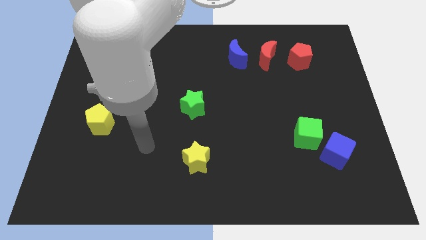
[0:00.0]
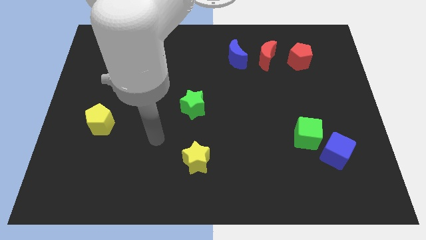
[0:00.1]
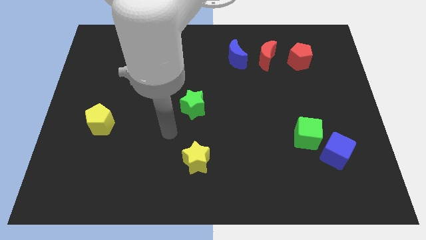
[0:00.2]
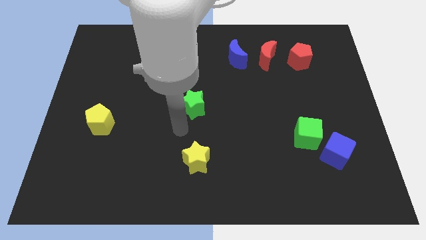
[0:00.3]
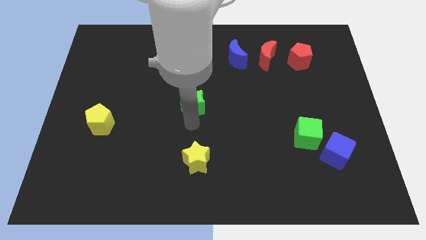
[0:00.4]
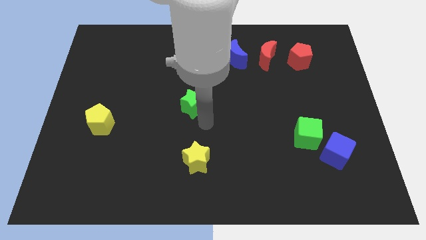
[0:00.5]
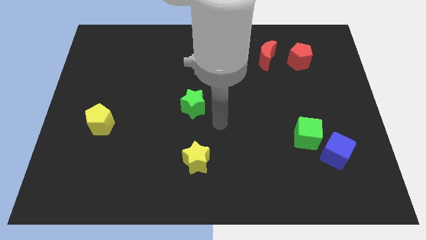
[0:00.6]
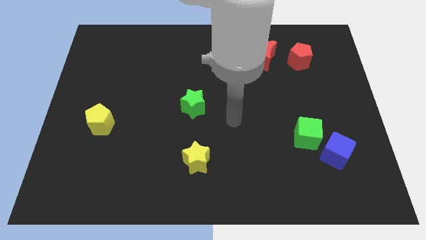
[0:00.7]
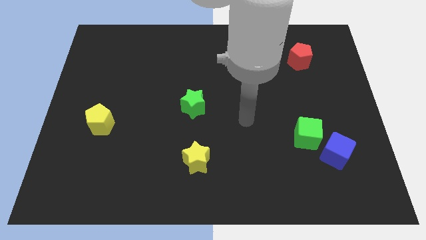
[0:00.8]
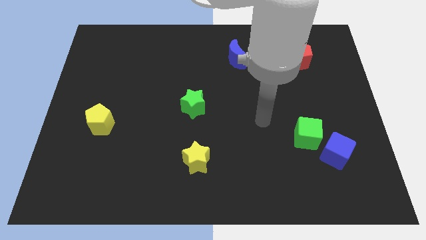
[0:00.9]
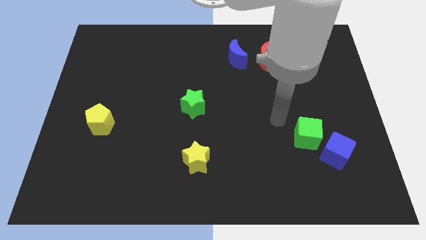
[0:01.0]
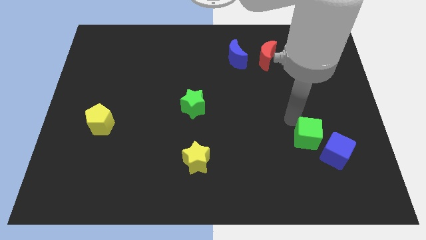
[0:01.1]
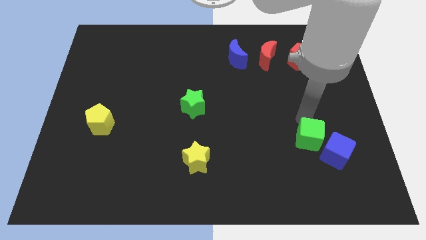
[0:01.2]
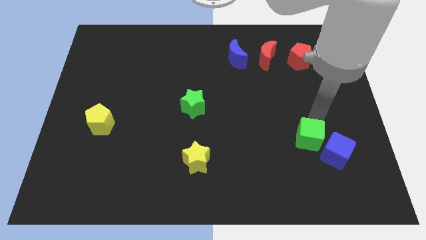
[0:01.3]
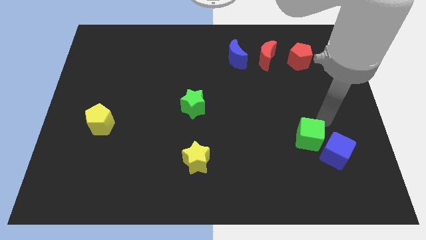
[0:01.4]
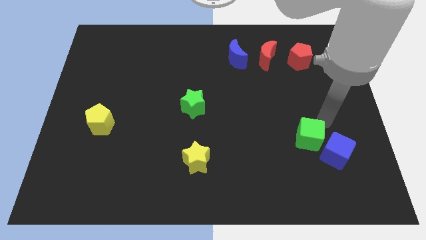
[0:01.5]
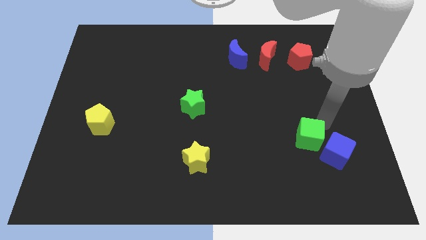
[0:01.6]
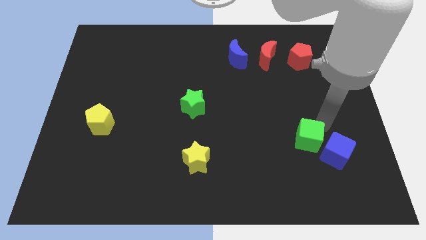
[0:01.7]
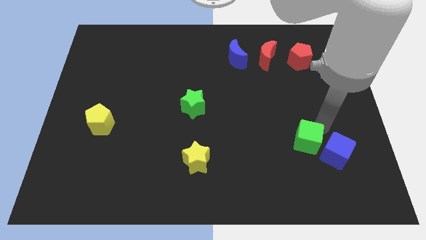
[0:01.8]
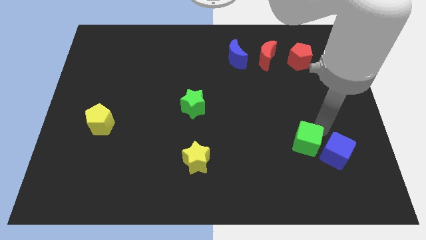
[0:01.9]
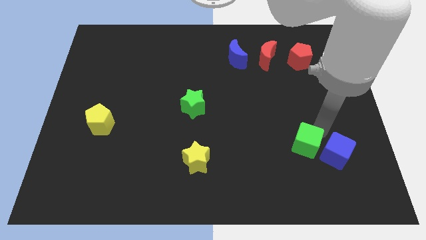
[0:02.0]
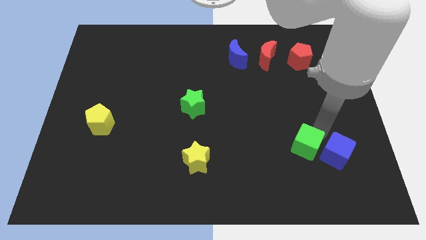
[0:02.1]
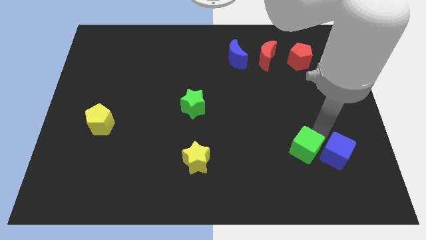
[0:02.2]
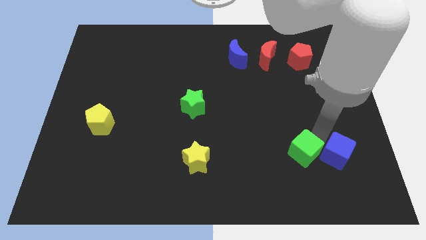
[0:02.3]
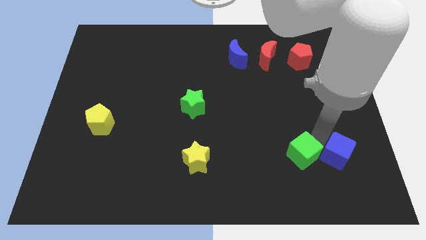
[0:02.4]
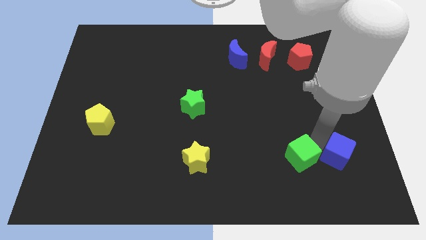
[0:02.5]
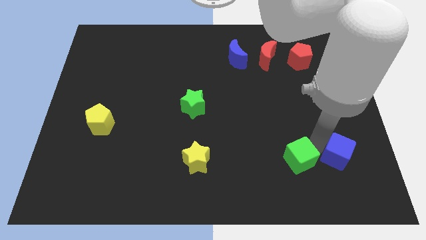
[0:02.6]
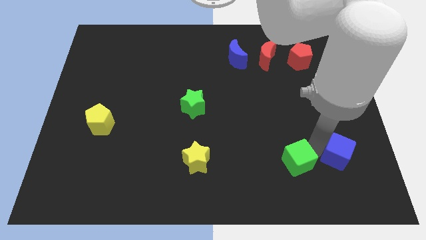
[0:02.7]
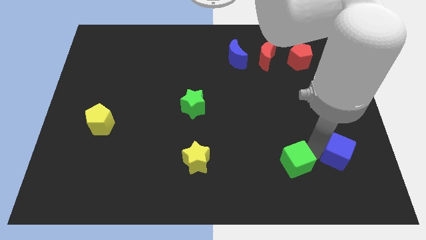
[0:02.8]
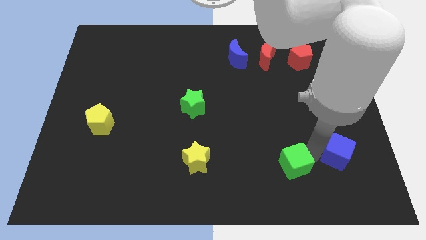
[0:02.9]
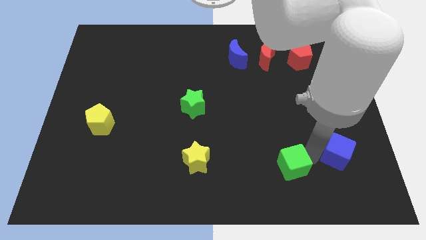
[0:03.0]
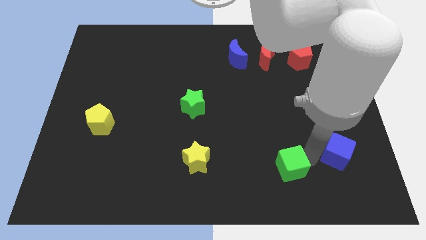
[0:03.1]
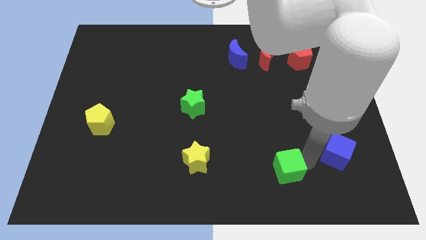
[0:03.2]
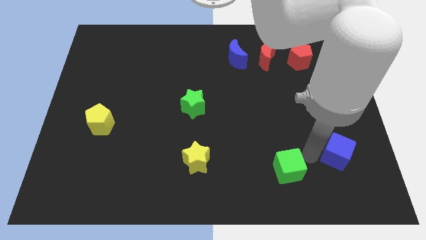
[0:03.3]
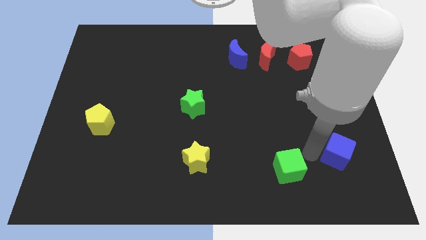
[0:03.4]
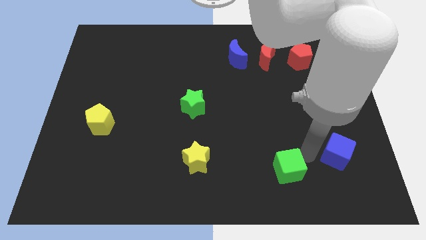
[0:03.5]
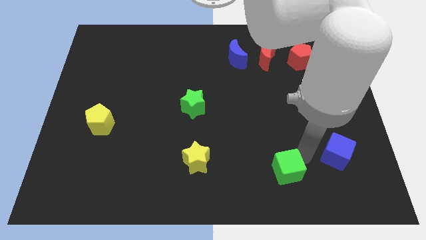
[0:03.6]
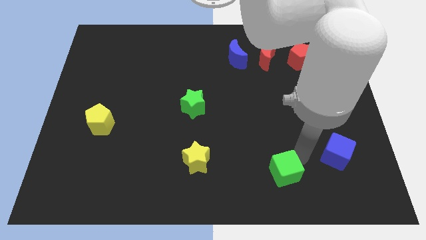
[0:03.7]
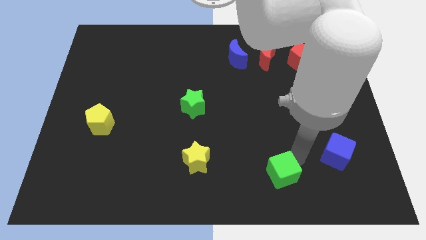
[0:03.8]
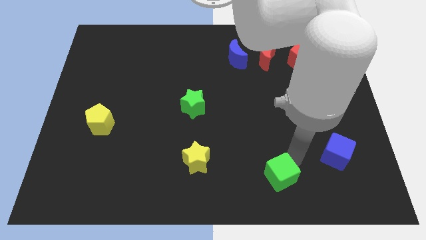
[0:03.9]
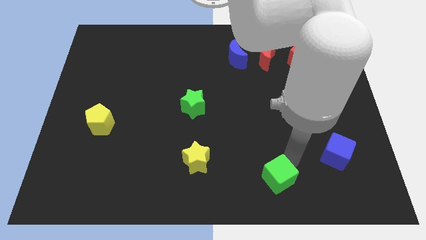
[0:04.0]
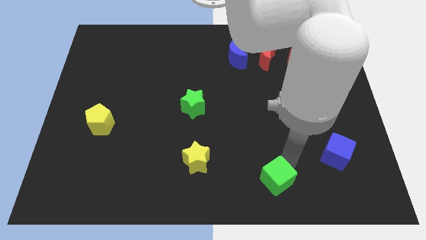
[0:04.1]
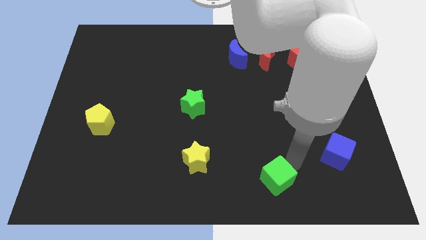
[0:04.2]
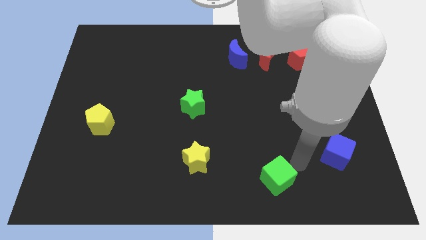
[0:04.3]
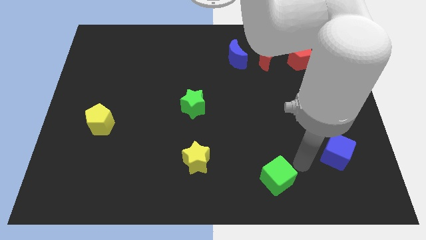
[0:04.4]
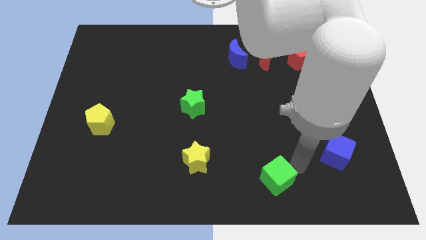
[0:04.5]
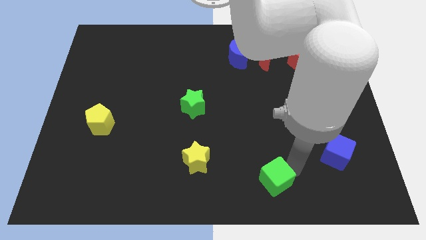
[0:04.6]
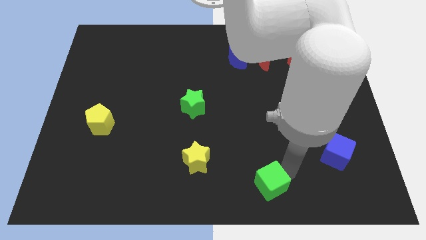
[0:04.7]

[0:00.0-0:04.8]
push the green cube to the bottom

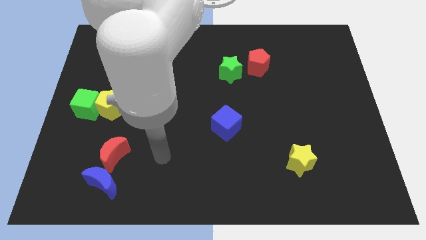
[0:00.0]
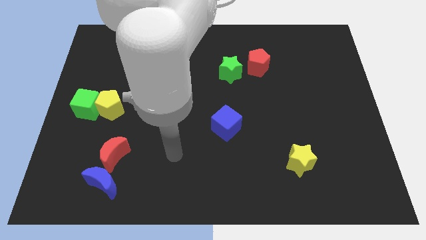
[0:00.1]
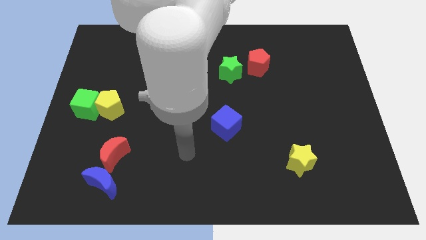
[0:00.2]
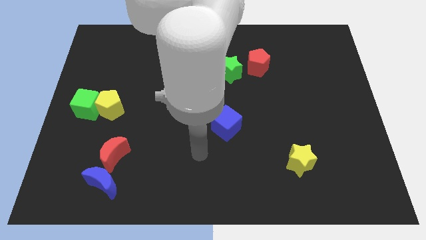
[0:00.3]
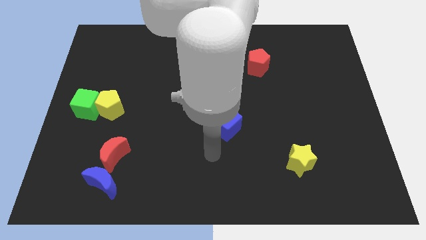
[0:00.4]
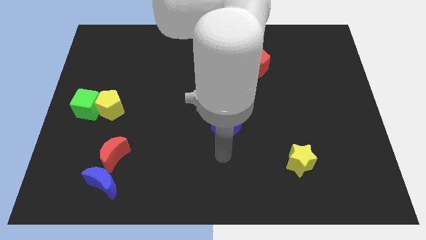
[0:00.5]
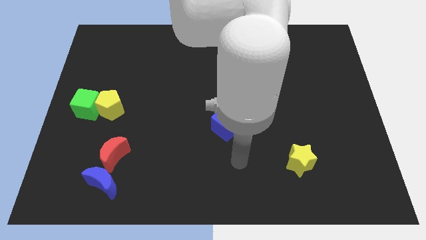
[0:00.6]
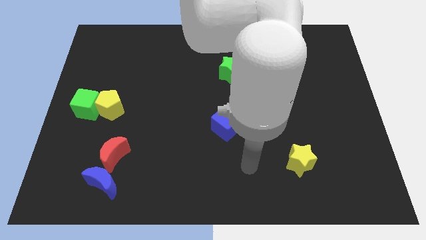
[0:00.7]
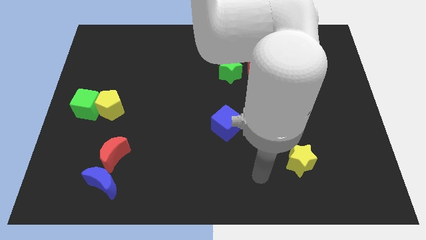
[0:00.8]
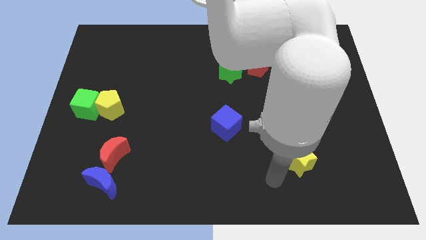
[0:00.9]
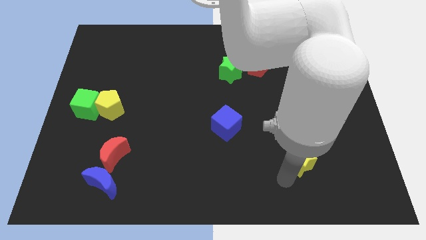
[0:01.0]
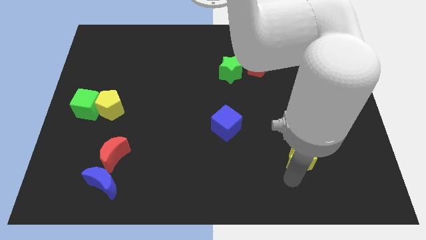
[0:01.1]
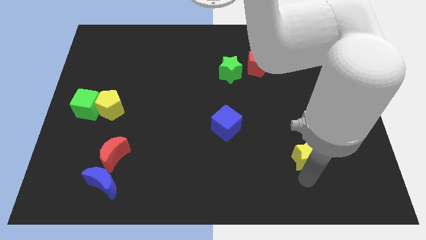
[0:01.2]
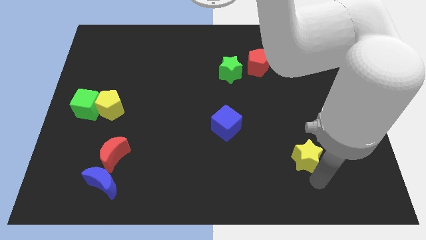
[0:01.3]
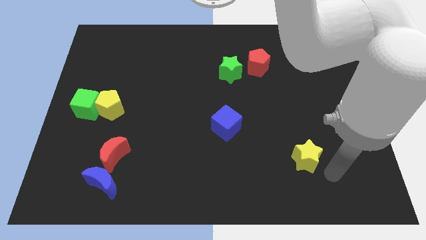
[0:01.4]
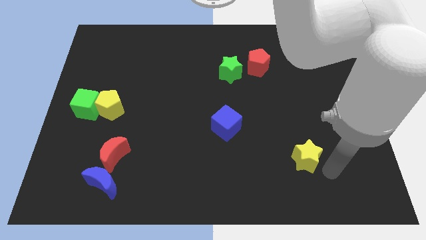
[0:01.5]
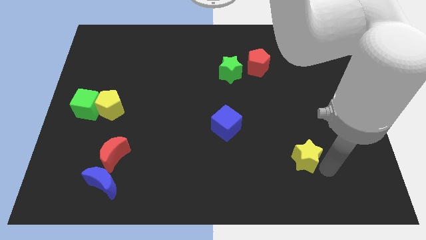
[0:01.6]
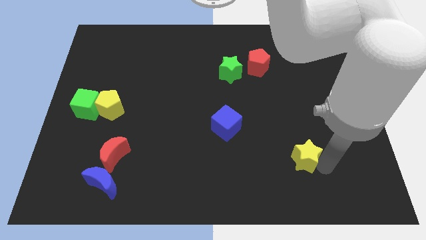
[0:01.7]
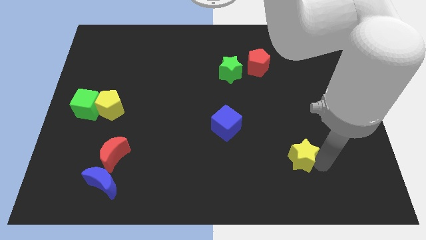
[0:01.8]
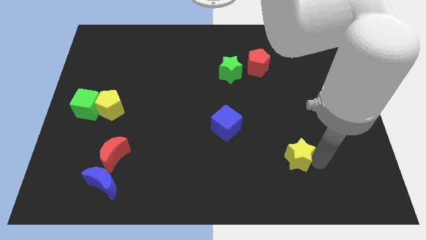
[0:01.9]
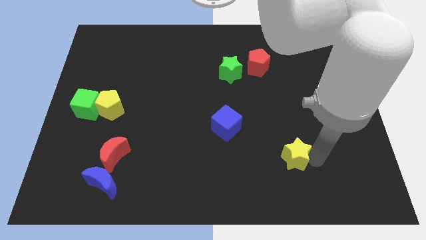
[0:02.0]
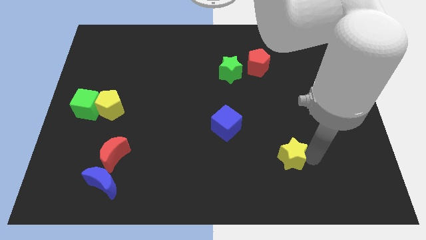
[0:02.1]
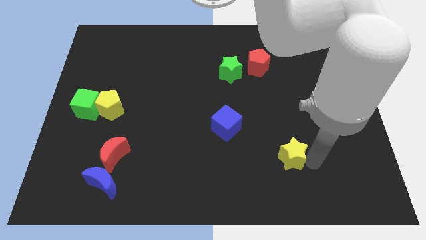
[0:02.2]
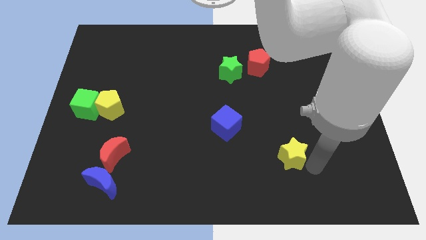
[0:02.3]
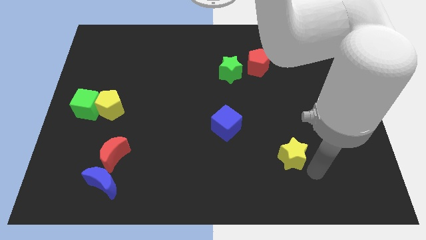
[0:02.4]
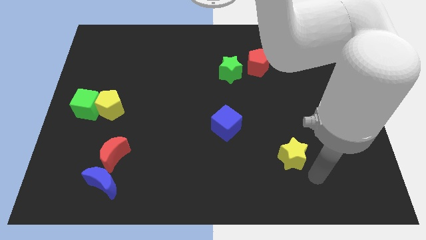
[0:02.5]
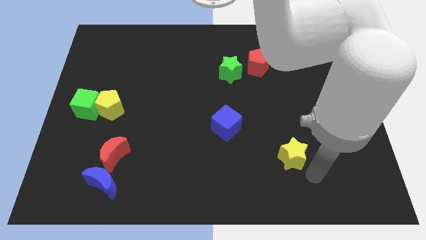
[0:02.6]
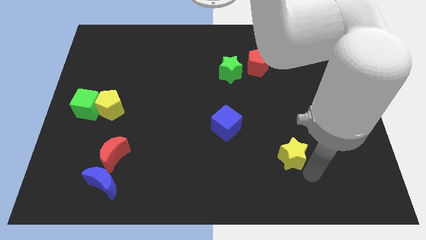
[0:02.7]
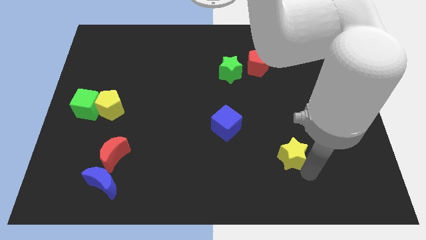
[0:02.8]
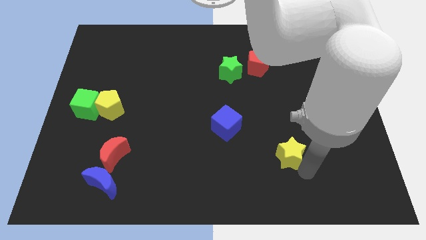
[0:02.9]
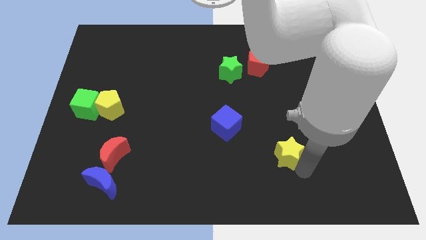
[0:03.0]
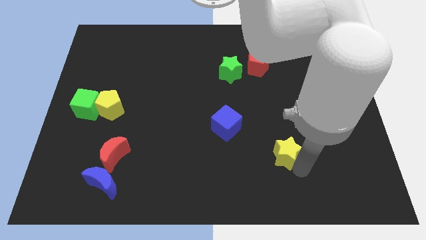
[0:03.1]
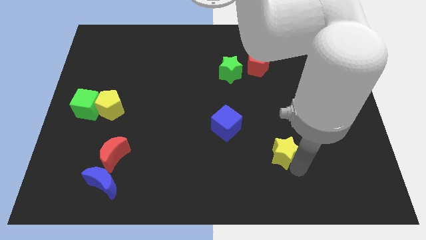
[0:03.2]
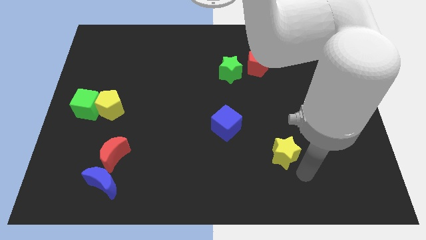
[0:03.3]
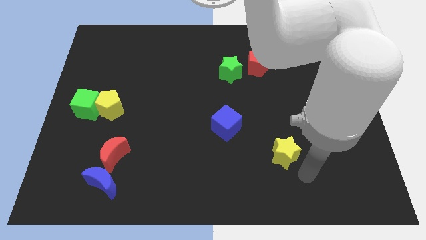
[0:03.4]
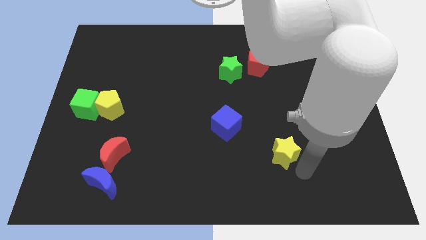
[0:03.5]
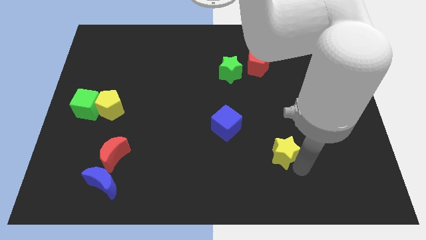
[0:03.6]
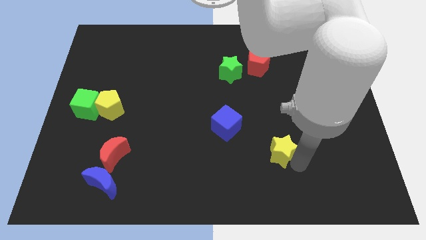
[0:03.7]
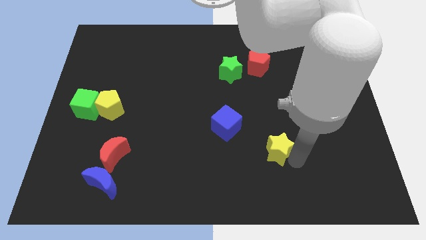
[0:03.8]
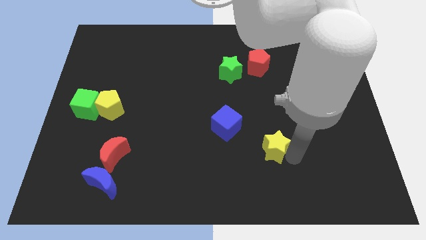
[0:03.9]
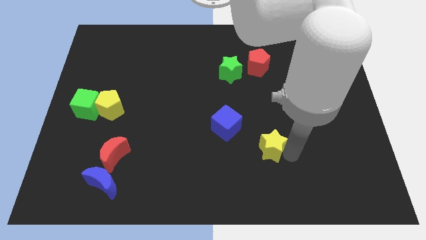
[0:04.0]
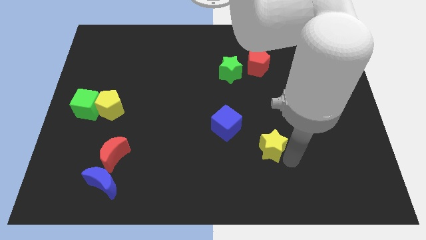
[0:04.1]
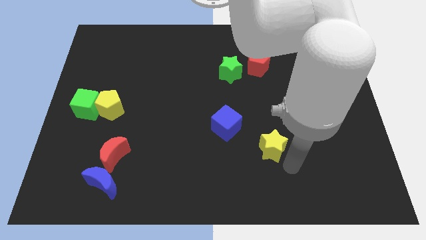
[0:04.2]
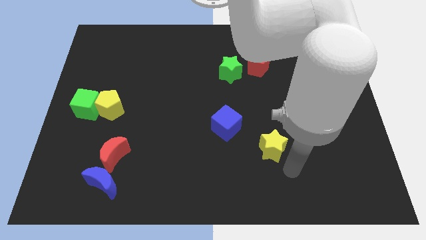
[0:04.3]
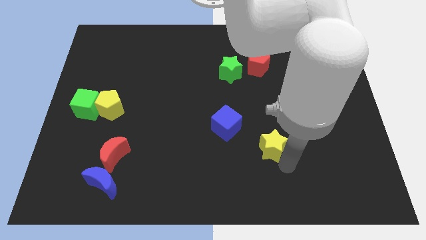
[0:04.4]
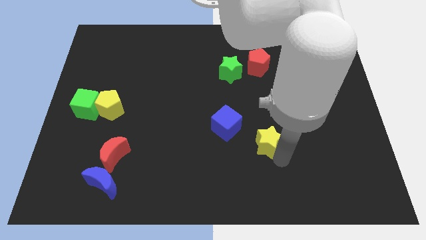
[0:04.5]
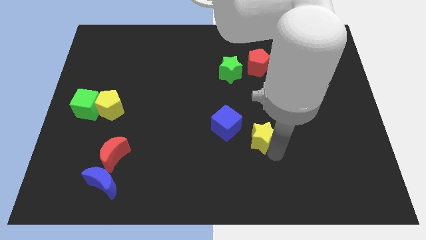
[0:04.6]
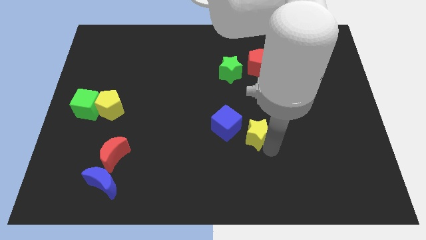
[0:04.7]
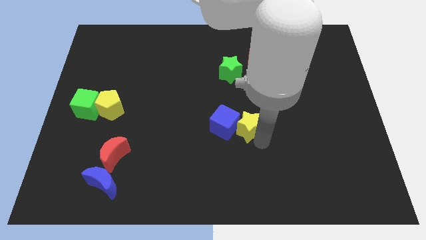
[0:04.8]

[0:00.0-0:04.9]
push the yellow star to the center of the board
